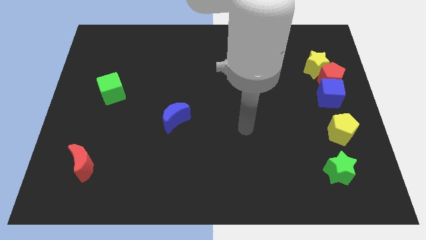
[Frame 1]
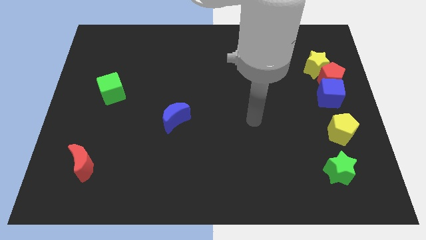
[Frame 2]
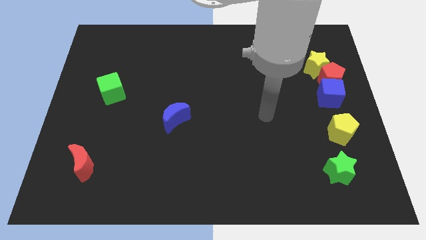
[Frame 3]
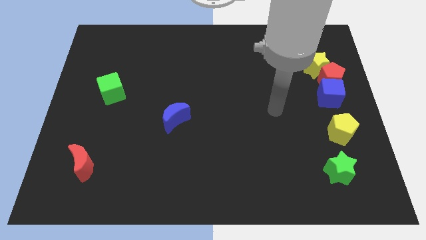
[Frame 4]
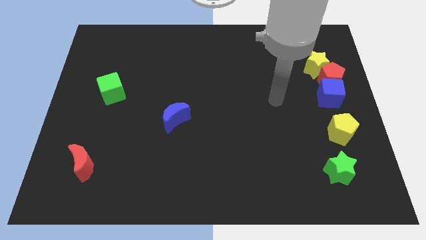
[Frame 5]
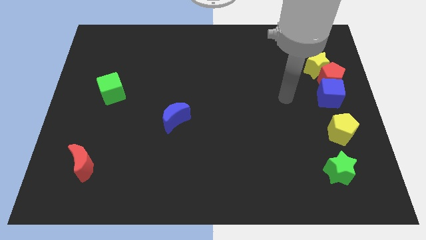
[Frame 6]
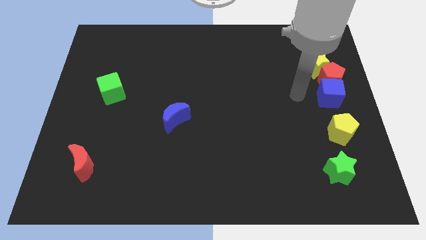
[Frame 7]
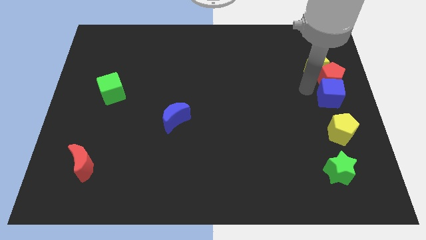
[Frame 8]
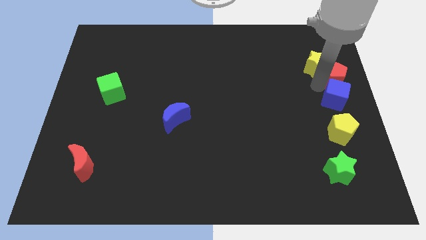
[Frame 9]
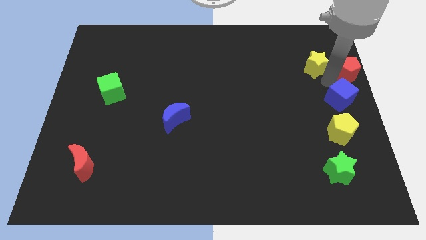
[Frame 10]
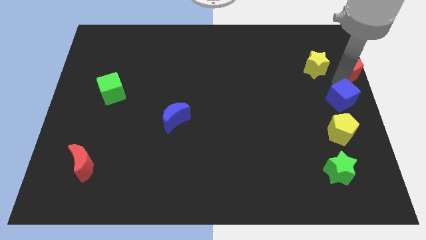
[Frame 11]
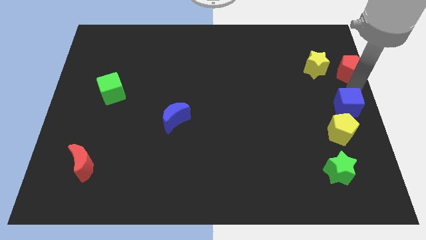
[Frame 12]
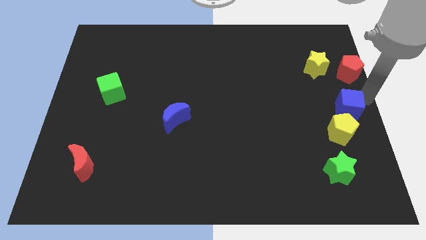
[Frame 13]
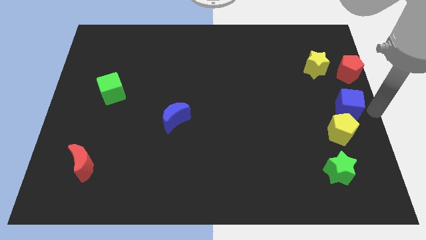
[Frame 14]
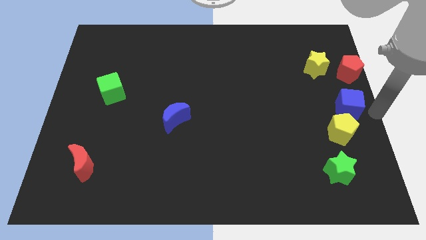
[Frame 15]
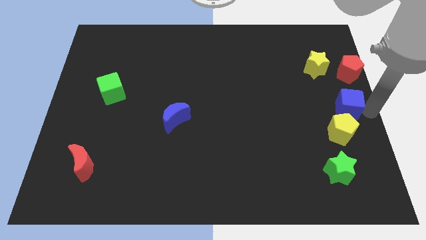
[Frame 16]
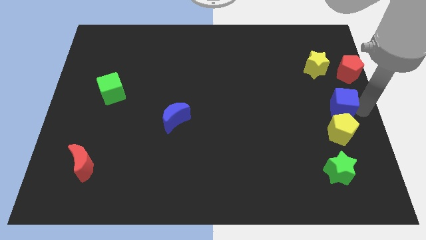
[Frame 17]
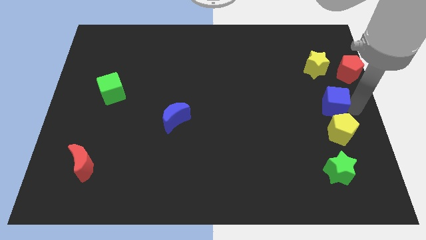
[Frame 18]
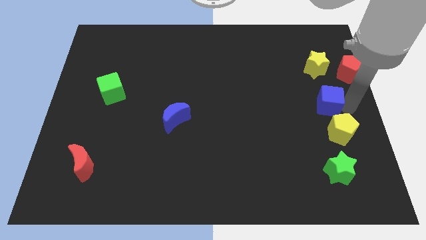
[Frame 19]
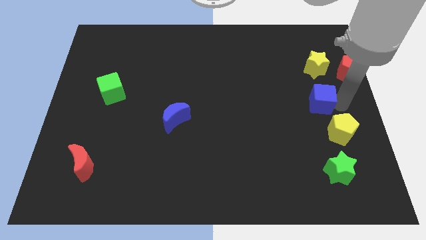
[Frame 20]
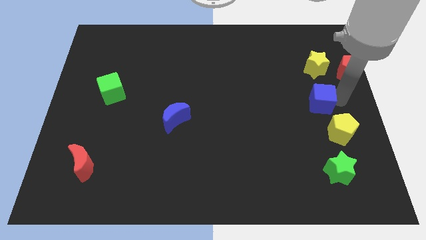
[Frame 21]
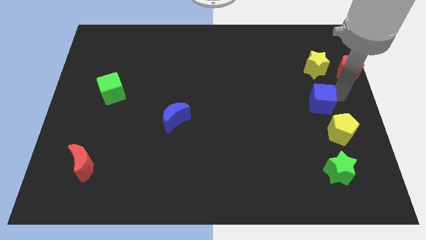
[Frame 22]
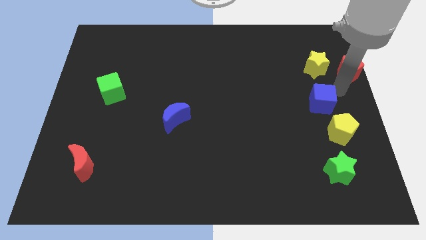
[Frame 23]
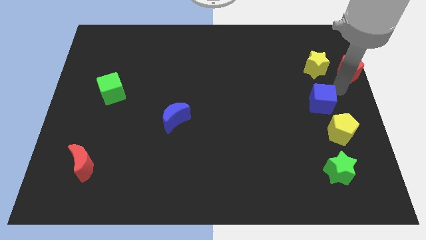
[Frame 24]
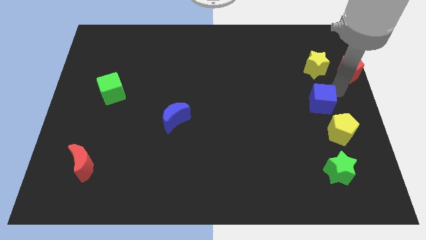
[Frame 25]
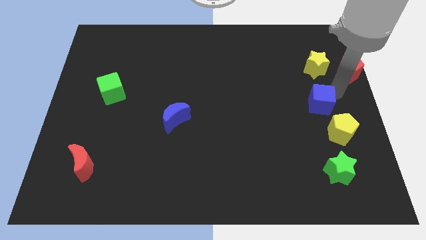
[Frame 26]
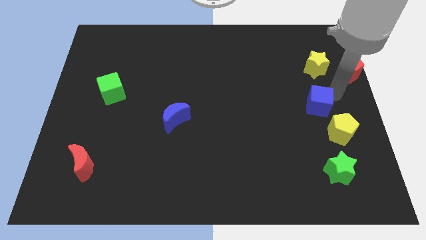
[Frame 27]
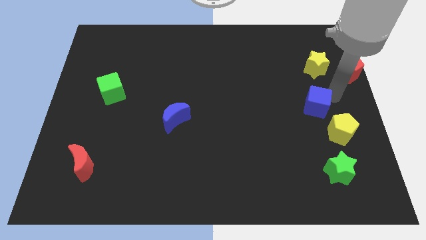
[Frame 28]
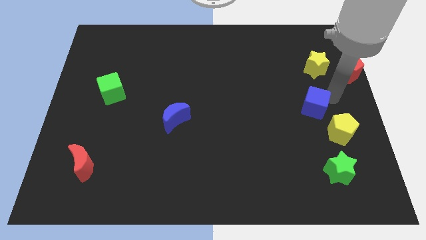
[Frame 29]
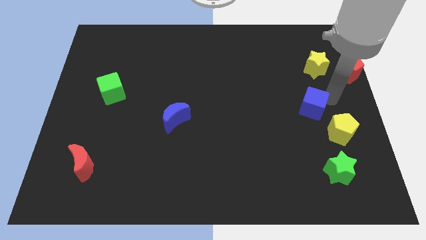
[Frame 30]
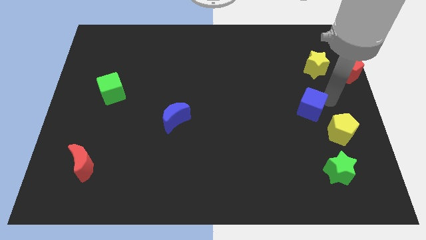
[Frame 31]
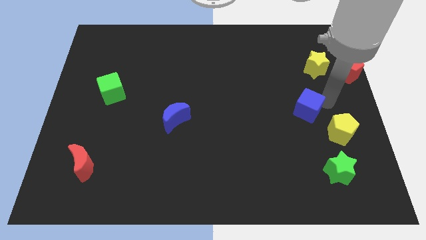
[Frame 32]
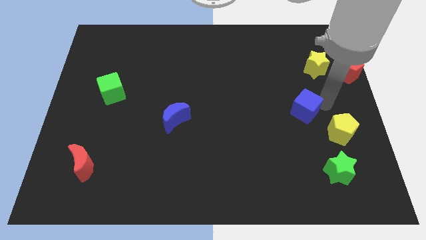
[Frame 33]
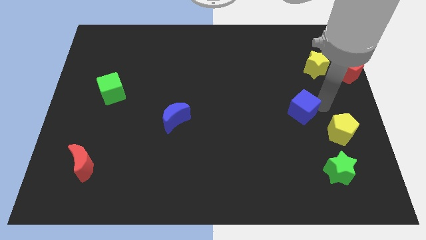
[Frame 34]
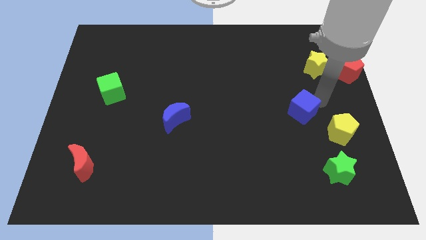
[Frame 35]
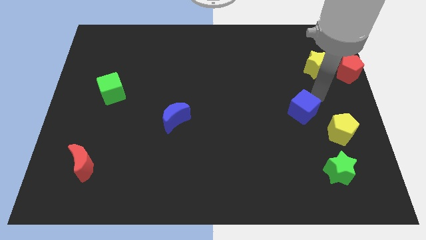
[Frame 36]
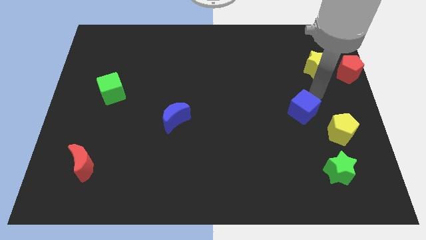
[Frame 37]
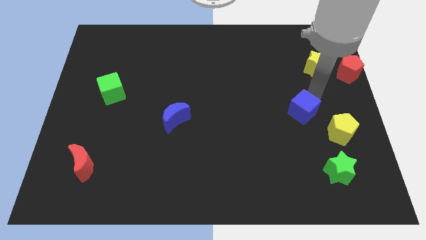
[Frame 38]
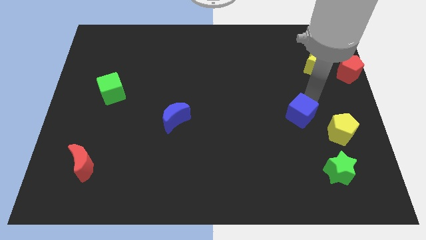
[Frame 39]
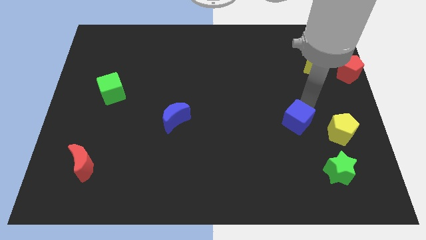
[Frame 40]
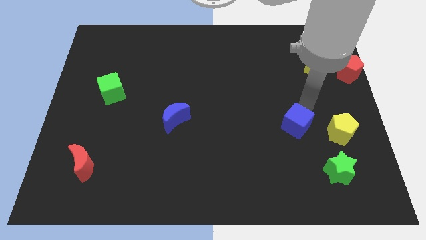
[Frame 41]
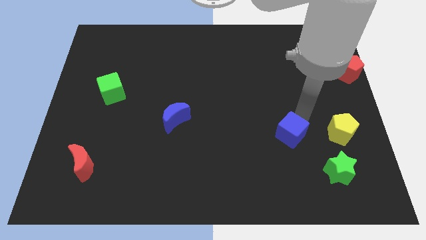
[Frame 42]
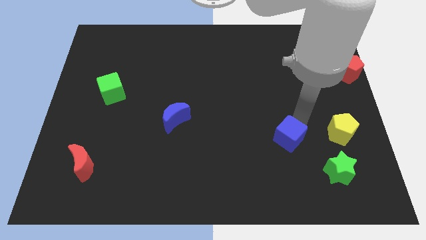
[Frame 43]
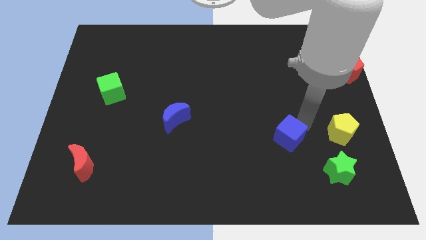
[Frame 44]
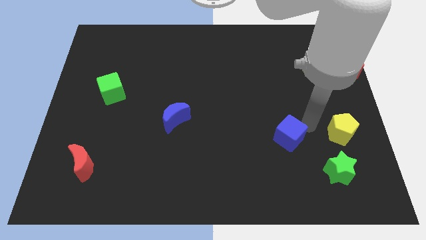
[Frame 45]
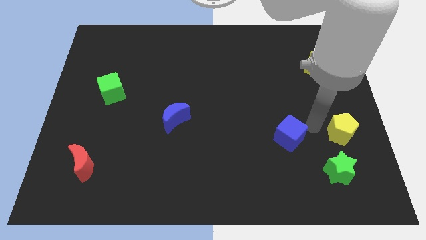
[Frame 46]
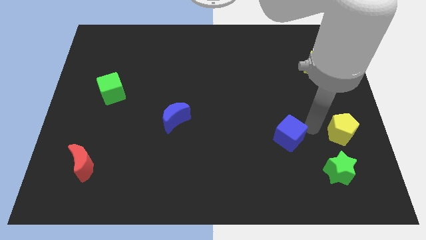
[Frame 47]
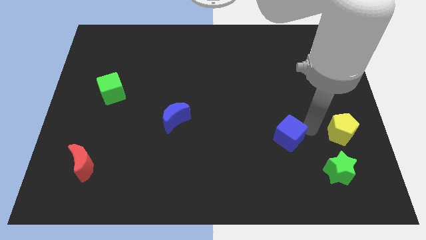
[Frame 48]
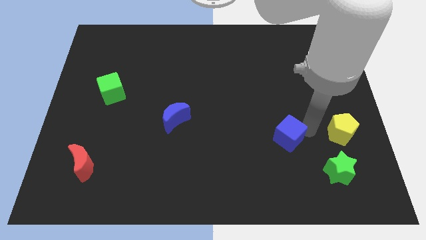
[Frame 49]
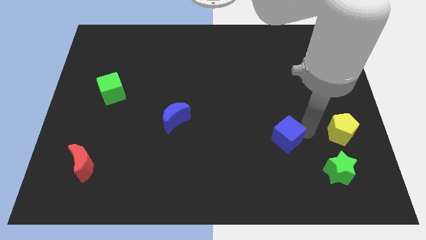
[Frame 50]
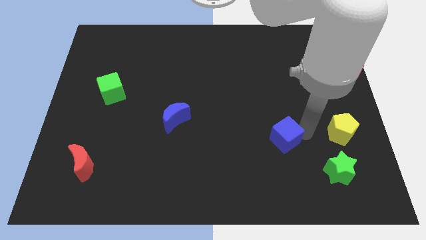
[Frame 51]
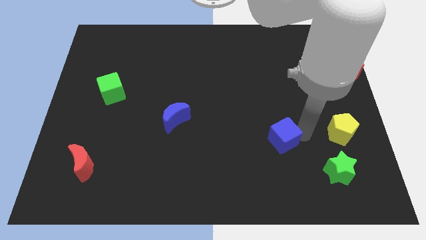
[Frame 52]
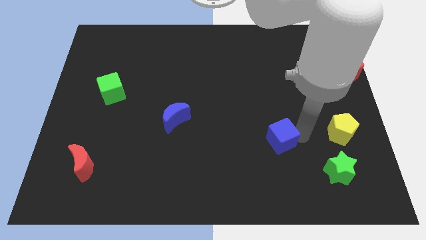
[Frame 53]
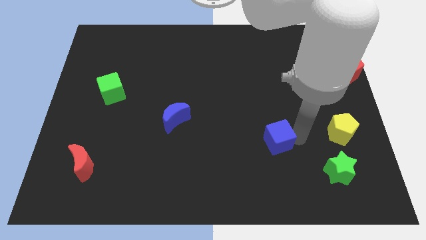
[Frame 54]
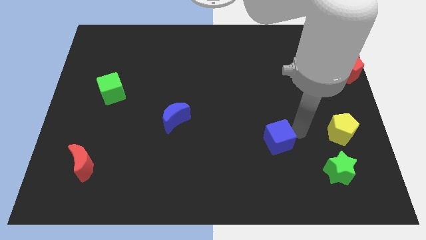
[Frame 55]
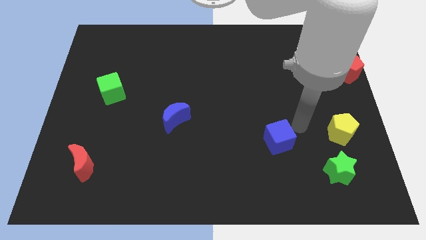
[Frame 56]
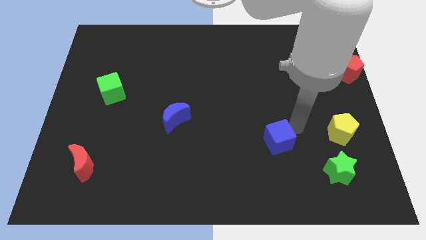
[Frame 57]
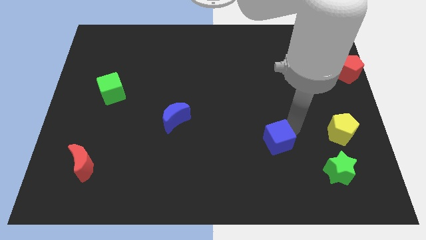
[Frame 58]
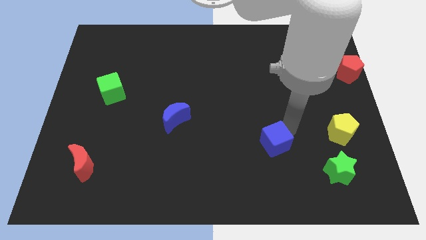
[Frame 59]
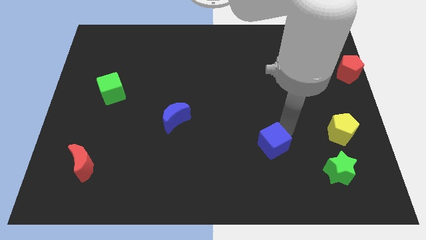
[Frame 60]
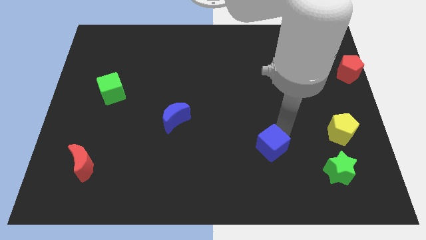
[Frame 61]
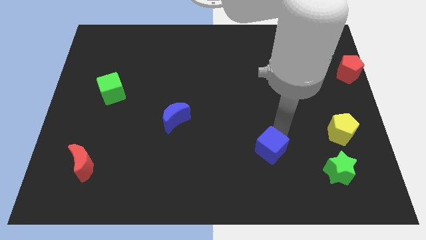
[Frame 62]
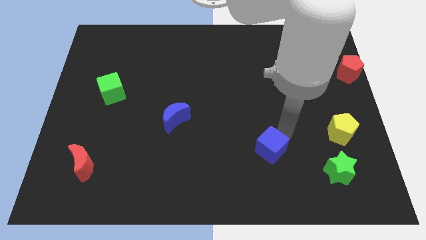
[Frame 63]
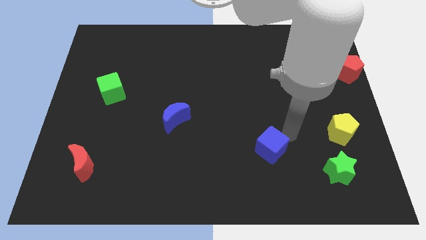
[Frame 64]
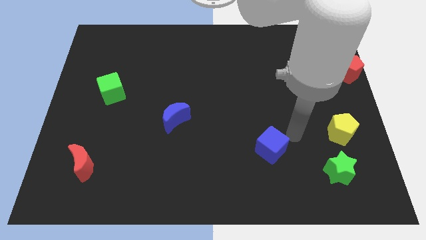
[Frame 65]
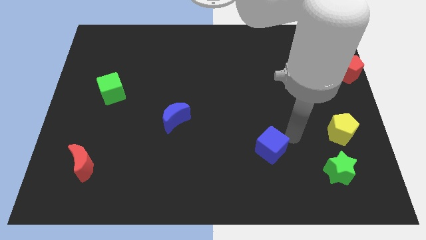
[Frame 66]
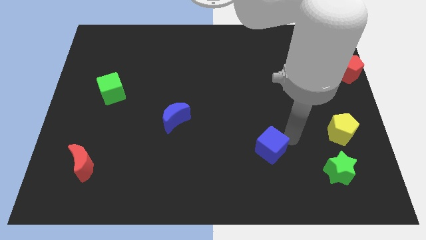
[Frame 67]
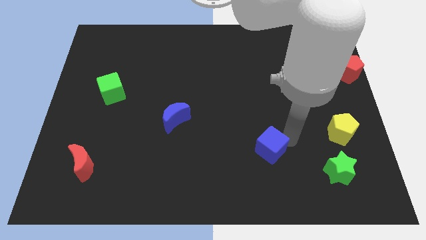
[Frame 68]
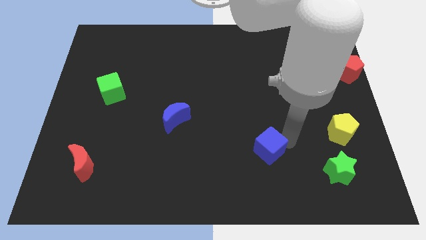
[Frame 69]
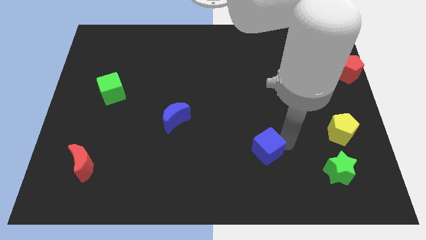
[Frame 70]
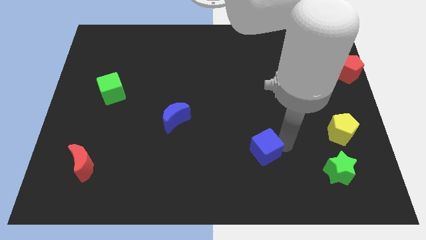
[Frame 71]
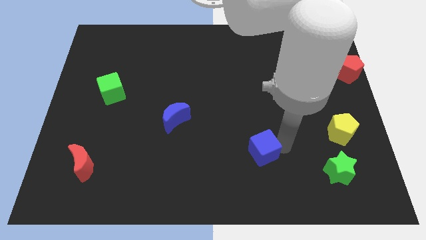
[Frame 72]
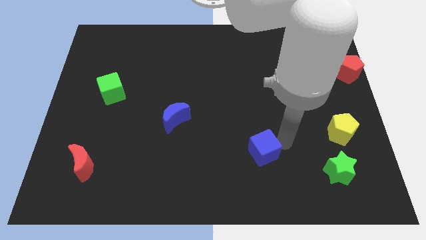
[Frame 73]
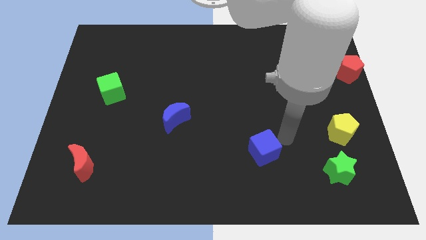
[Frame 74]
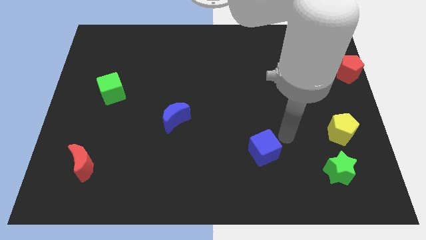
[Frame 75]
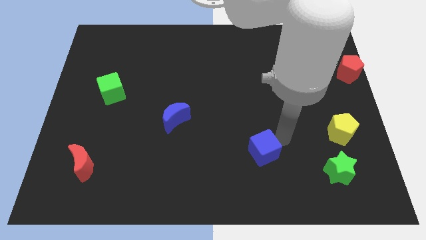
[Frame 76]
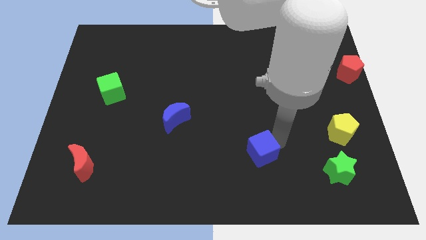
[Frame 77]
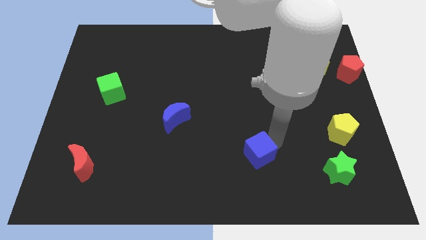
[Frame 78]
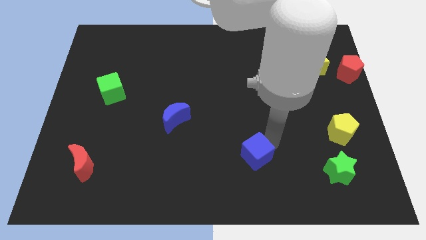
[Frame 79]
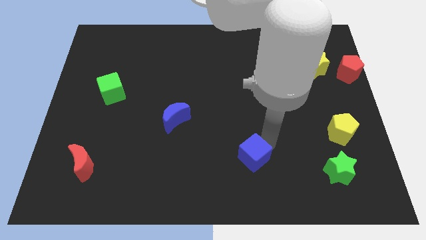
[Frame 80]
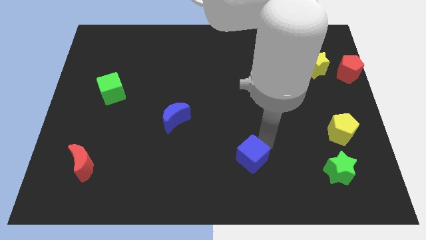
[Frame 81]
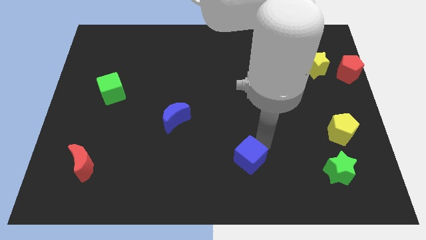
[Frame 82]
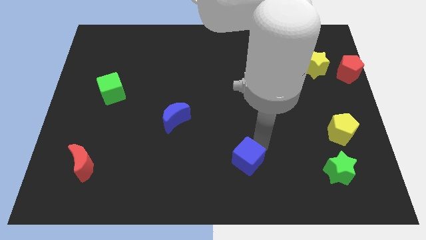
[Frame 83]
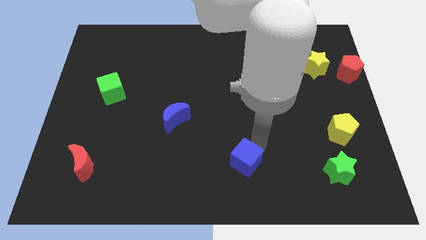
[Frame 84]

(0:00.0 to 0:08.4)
push the blue cube to the bottom
